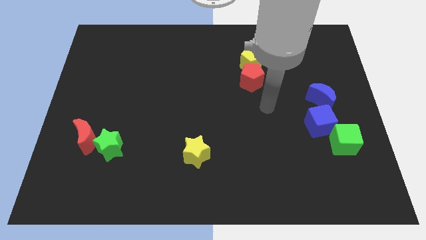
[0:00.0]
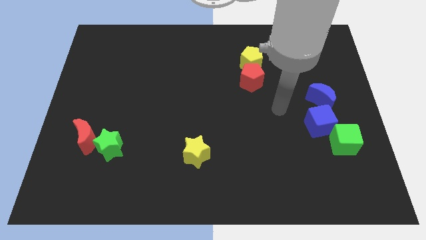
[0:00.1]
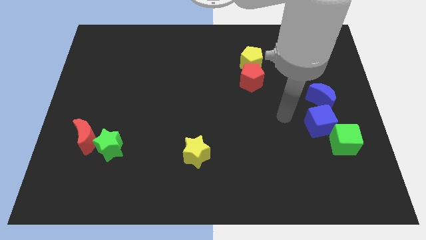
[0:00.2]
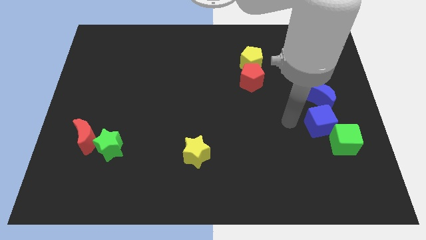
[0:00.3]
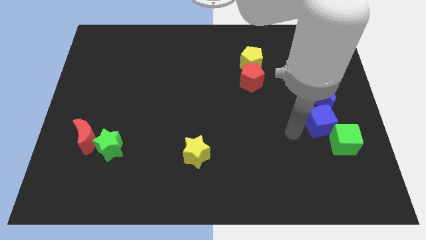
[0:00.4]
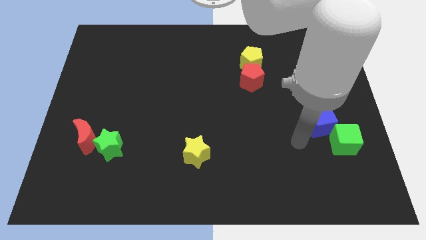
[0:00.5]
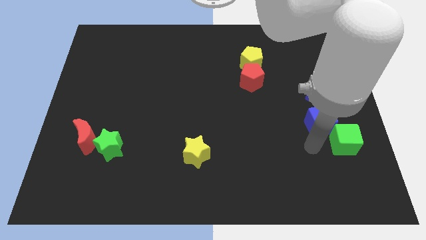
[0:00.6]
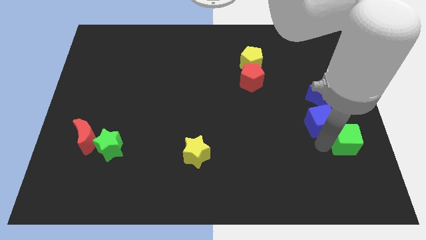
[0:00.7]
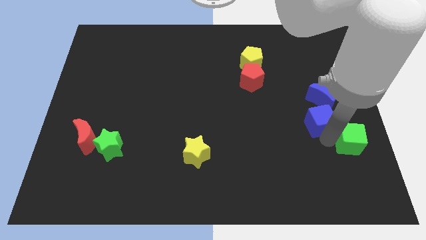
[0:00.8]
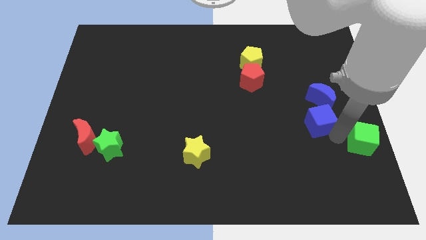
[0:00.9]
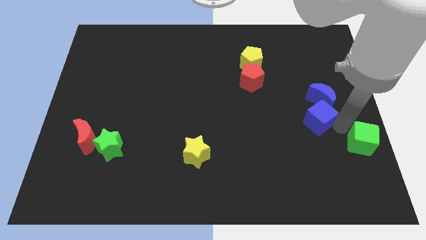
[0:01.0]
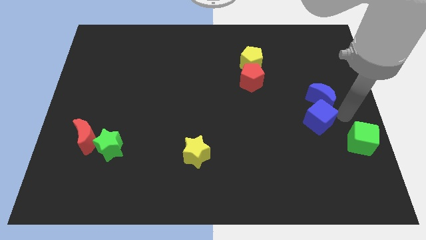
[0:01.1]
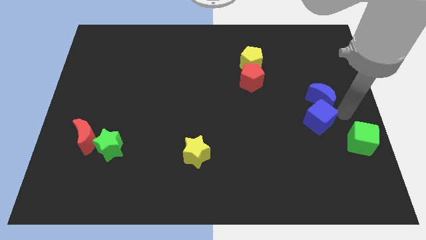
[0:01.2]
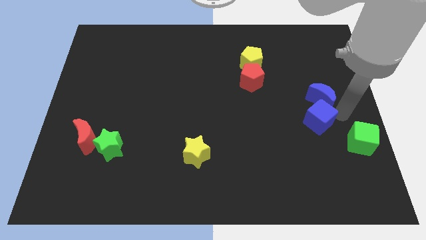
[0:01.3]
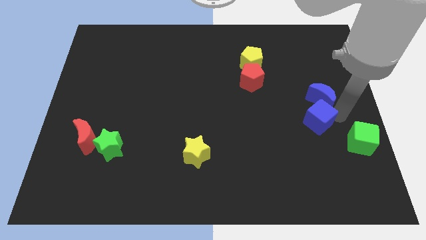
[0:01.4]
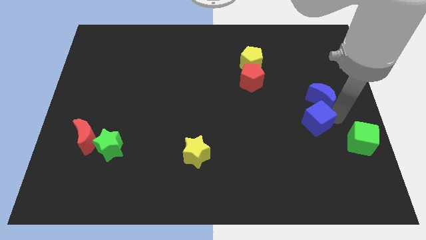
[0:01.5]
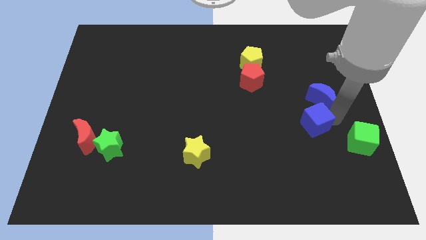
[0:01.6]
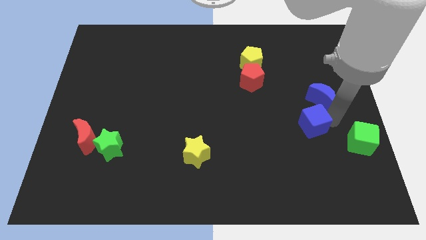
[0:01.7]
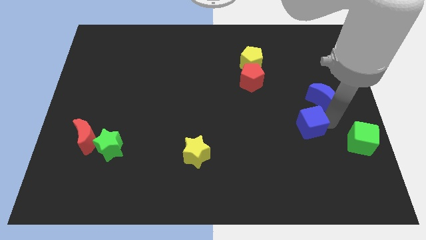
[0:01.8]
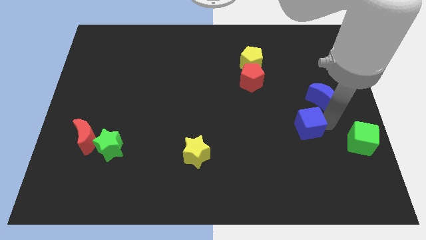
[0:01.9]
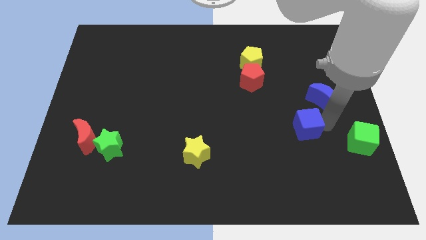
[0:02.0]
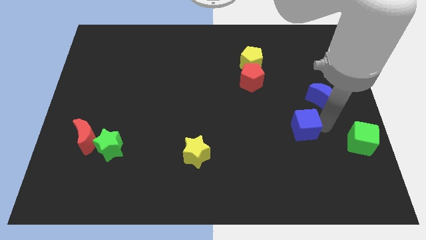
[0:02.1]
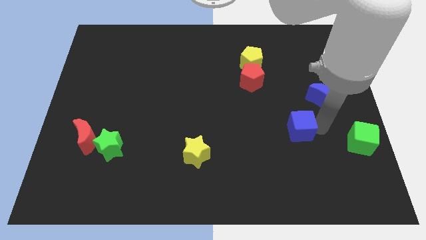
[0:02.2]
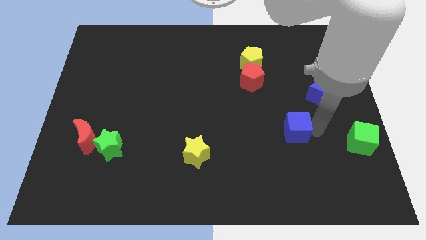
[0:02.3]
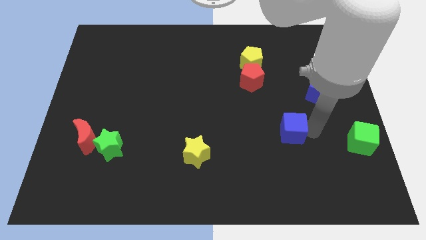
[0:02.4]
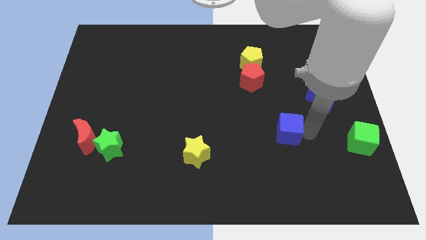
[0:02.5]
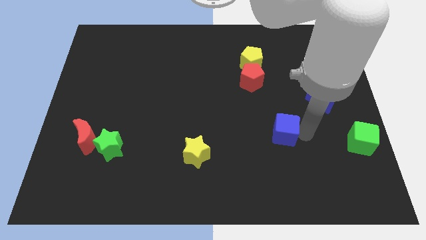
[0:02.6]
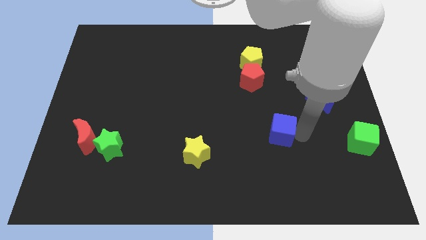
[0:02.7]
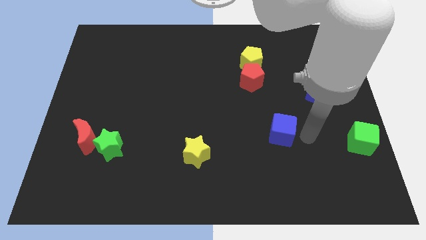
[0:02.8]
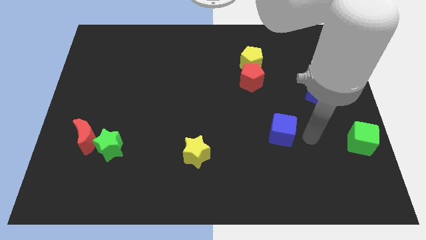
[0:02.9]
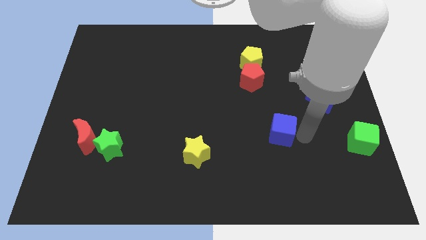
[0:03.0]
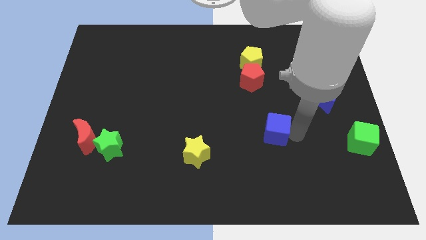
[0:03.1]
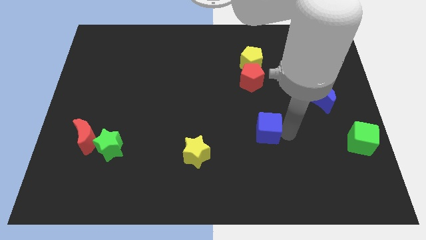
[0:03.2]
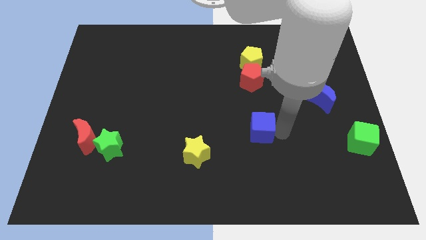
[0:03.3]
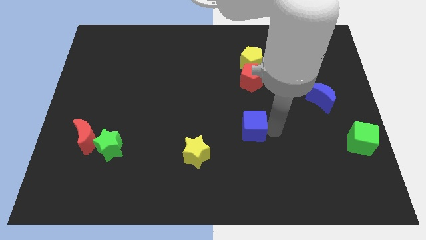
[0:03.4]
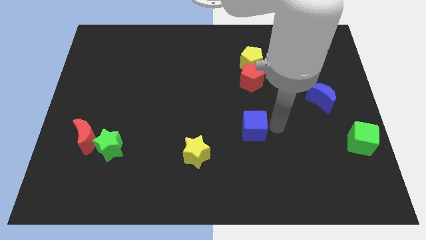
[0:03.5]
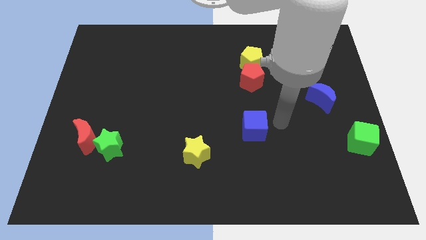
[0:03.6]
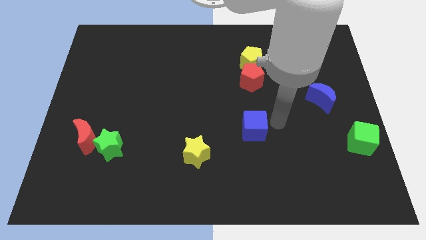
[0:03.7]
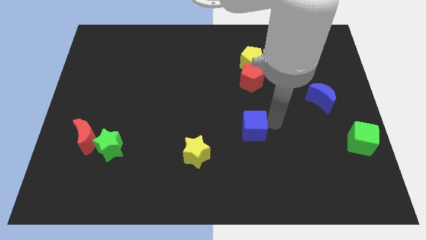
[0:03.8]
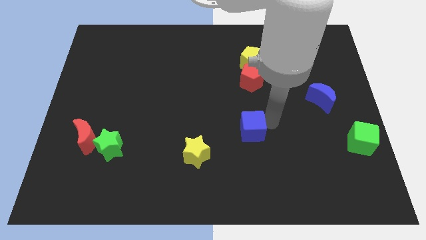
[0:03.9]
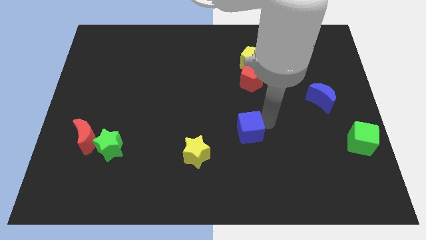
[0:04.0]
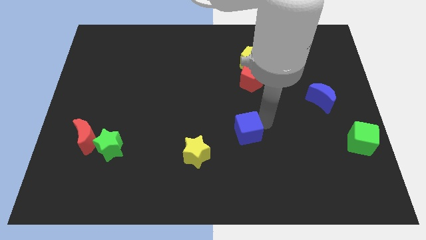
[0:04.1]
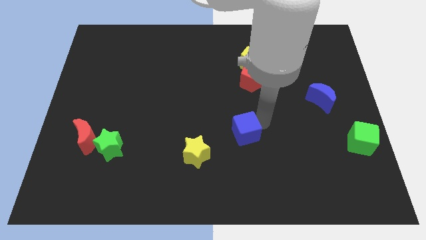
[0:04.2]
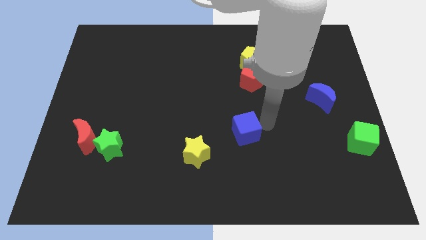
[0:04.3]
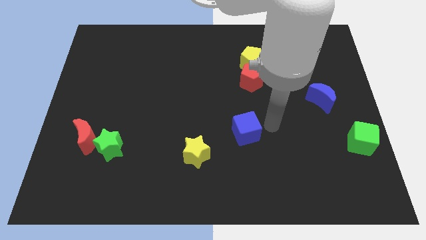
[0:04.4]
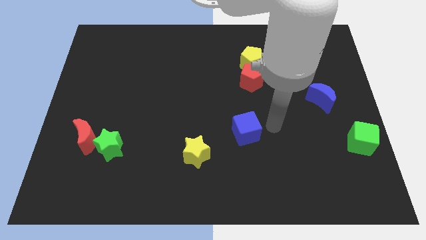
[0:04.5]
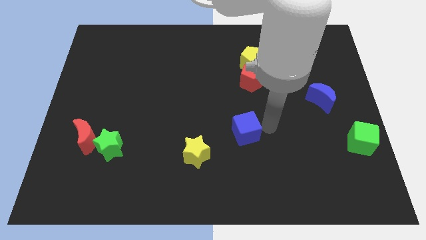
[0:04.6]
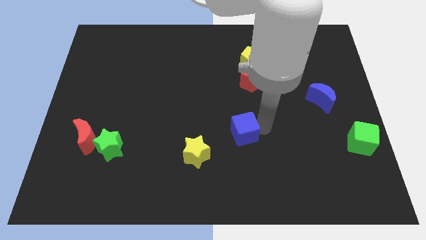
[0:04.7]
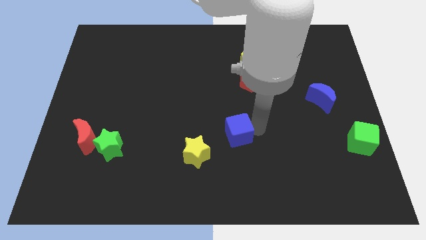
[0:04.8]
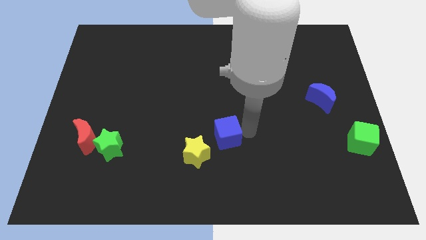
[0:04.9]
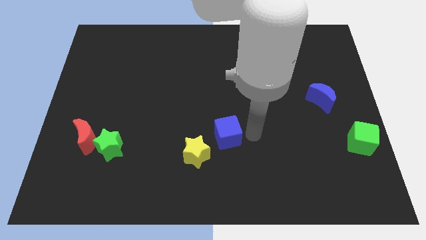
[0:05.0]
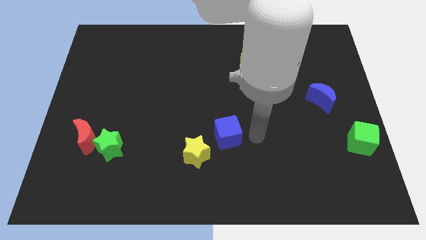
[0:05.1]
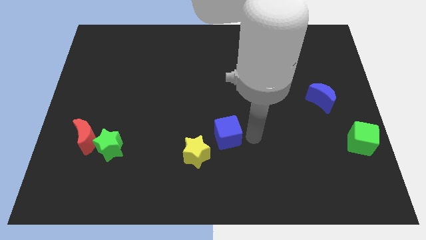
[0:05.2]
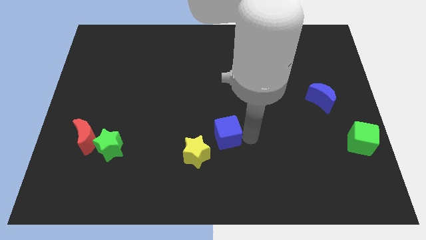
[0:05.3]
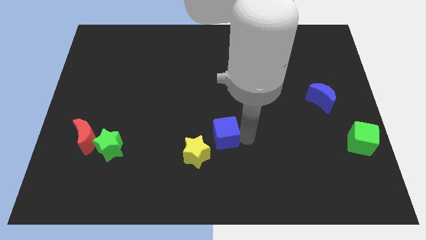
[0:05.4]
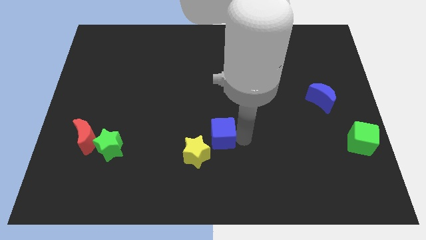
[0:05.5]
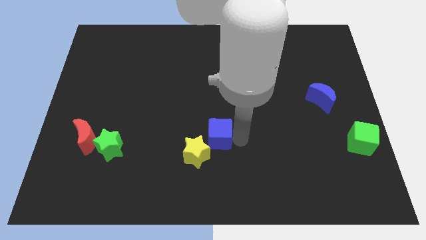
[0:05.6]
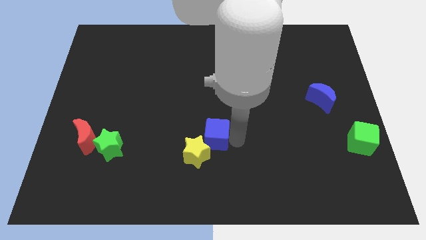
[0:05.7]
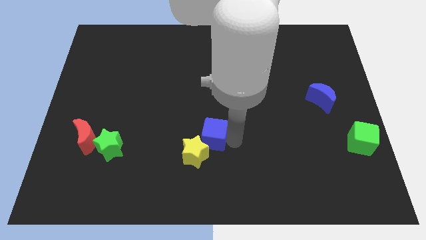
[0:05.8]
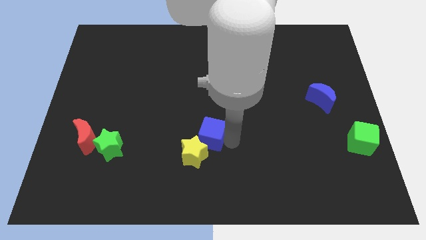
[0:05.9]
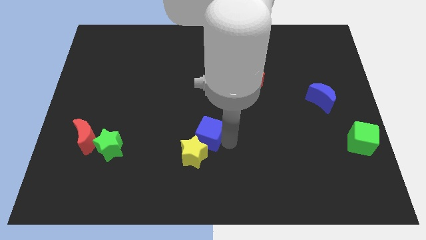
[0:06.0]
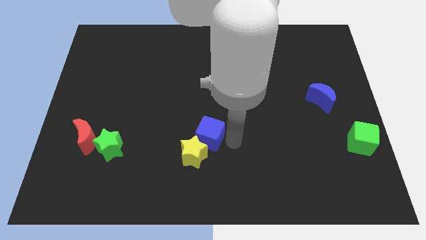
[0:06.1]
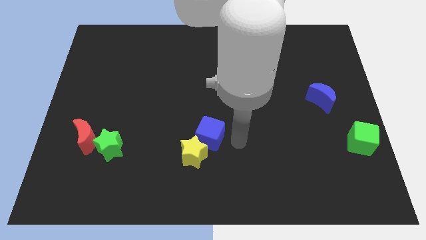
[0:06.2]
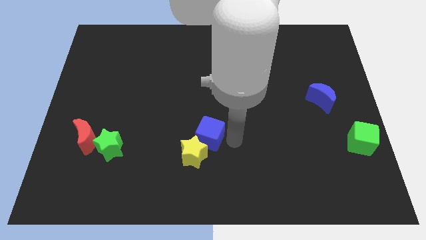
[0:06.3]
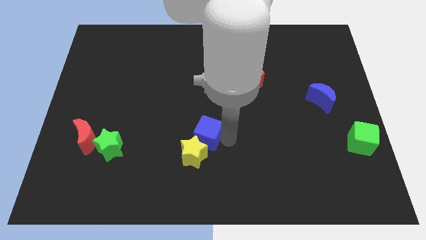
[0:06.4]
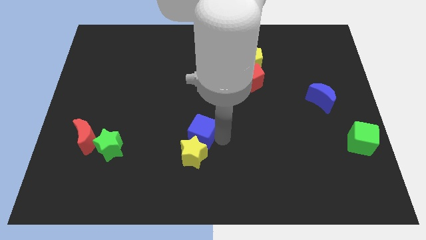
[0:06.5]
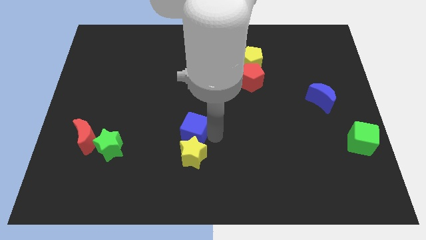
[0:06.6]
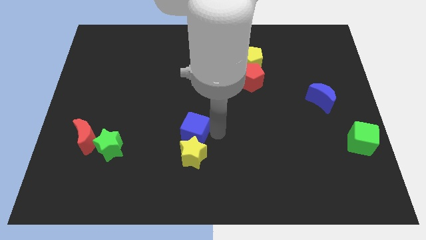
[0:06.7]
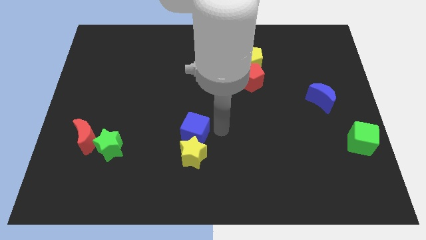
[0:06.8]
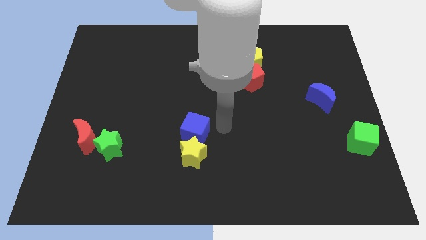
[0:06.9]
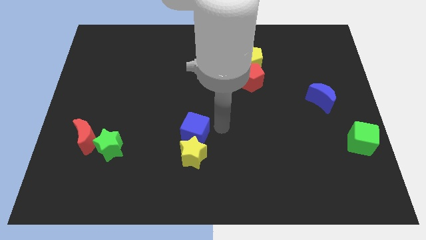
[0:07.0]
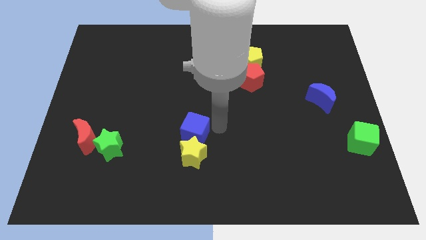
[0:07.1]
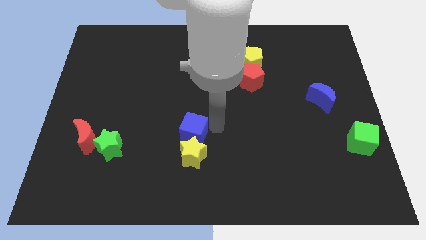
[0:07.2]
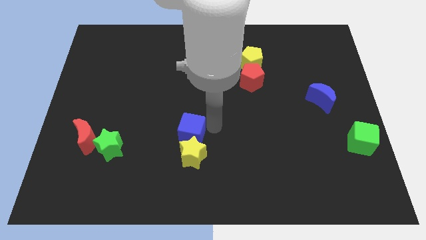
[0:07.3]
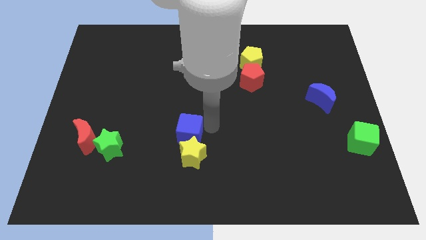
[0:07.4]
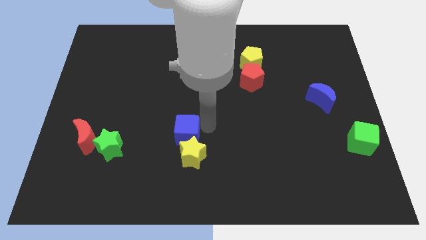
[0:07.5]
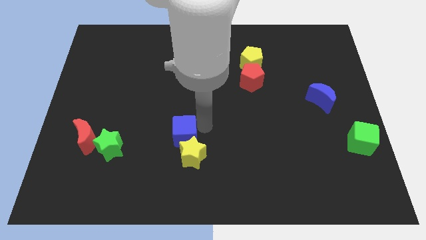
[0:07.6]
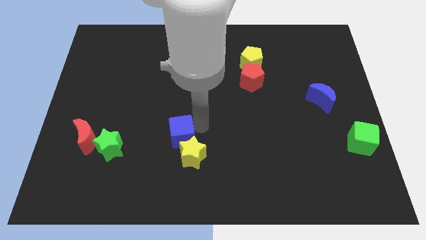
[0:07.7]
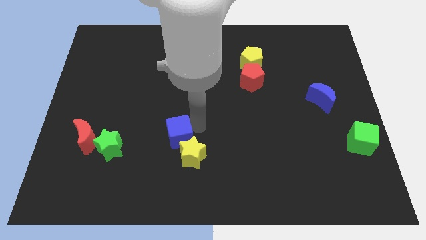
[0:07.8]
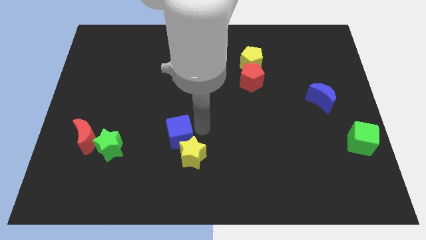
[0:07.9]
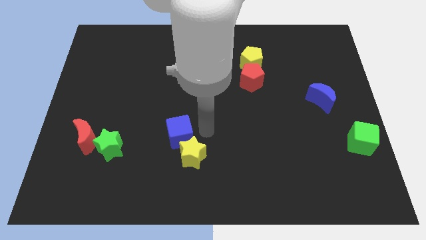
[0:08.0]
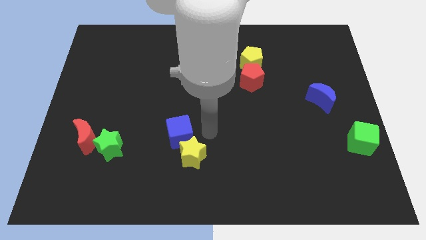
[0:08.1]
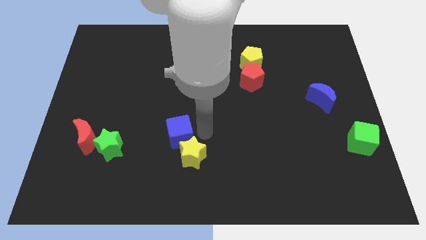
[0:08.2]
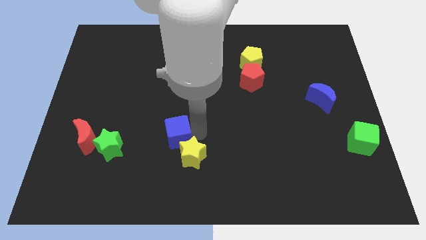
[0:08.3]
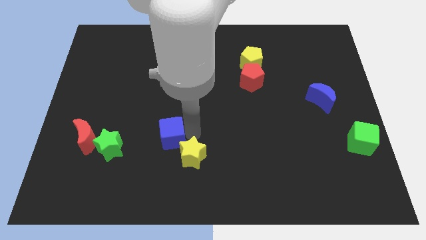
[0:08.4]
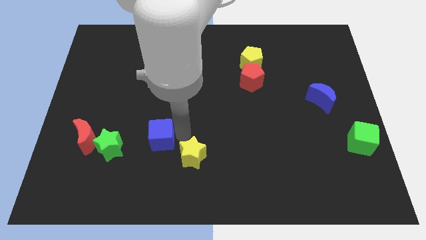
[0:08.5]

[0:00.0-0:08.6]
put the blue cube right of the red moon
